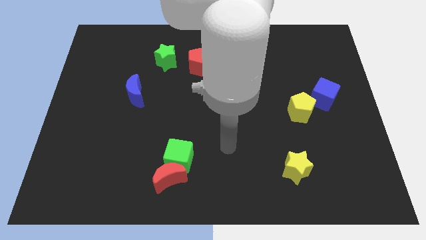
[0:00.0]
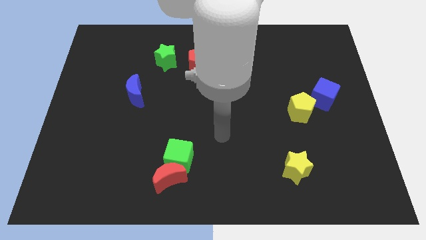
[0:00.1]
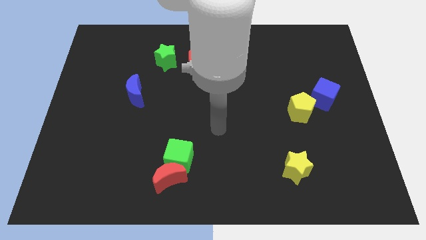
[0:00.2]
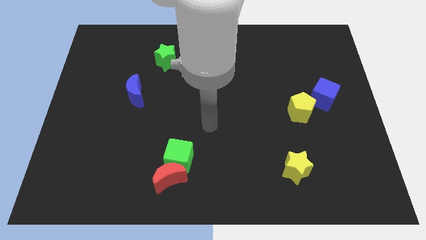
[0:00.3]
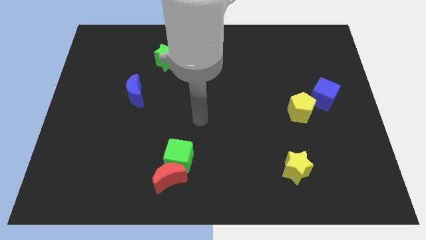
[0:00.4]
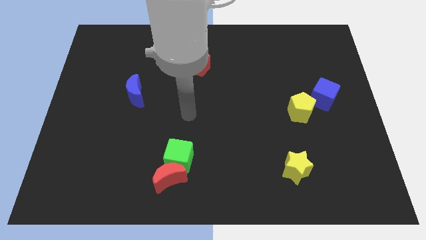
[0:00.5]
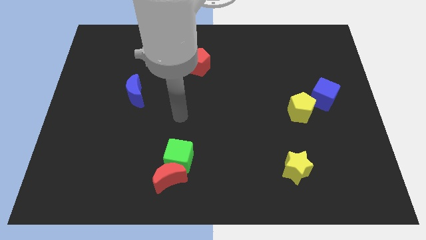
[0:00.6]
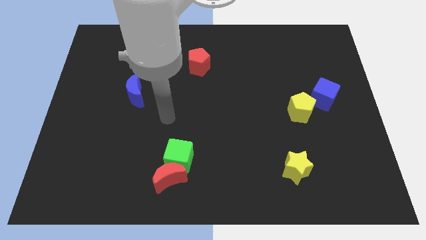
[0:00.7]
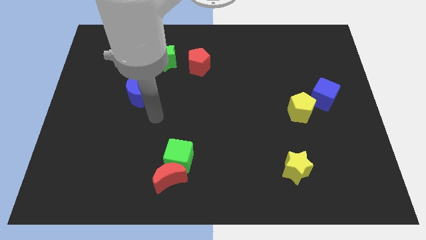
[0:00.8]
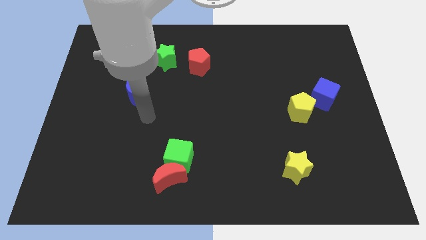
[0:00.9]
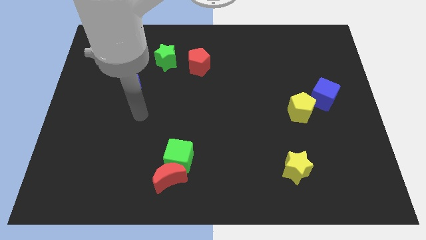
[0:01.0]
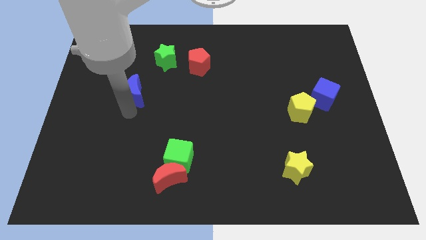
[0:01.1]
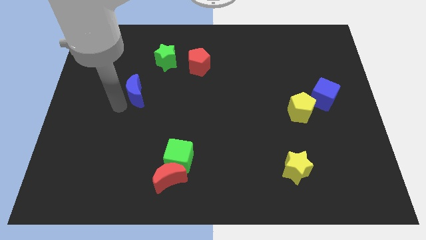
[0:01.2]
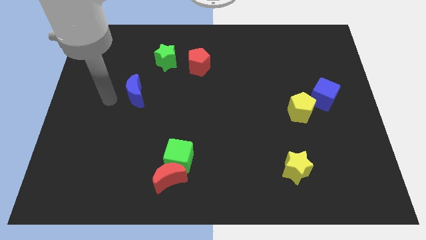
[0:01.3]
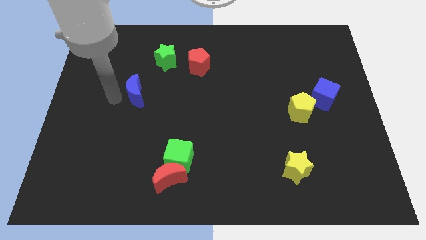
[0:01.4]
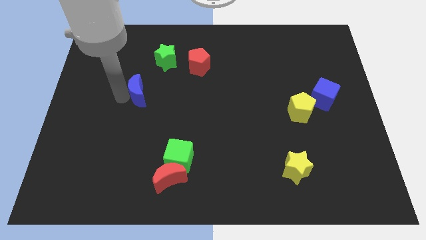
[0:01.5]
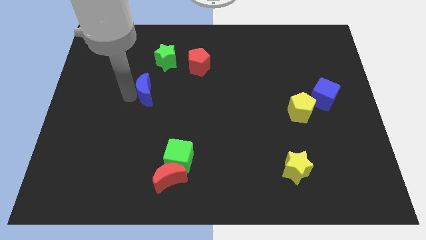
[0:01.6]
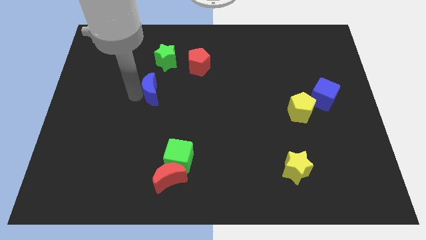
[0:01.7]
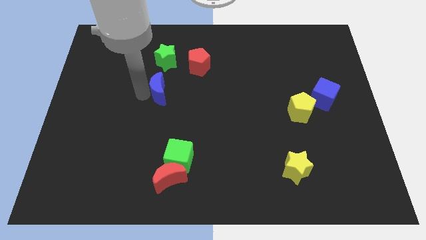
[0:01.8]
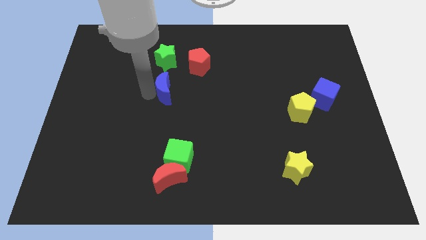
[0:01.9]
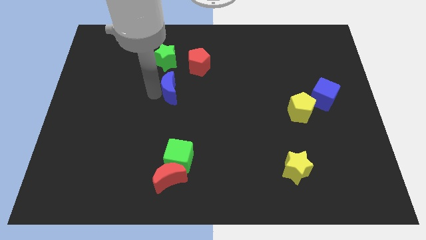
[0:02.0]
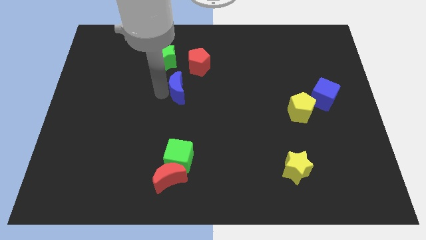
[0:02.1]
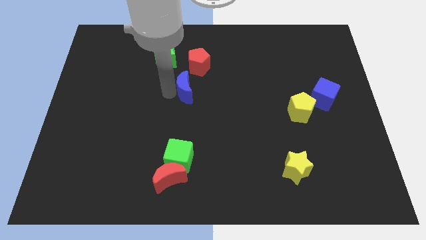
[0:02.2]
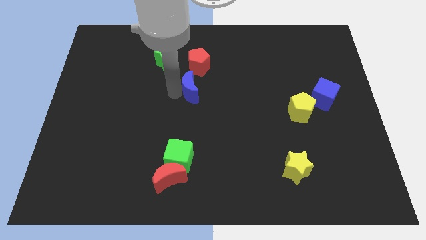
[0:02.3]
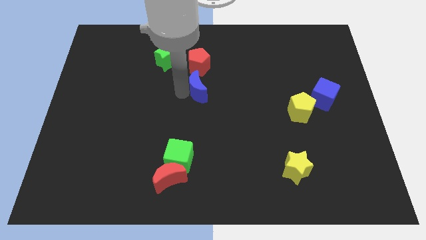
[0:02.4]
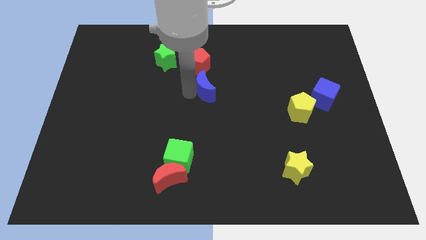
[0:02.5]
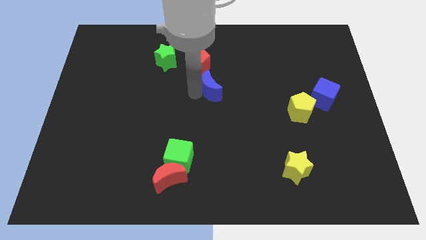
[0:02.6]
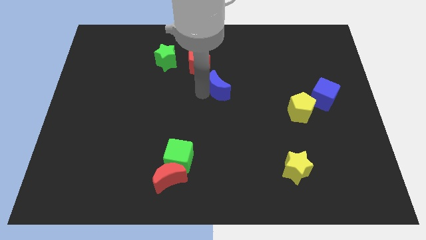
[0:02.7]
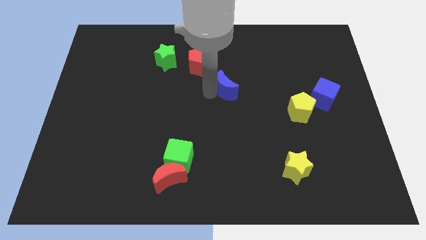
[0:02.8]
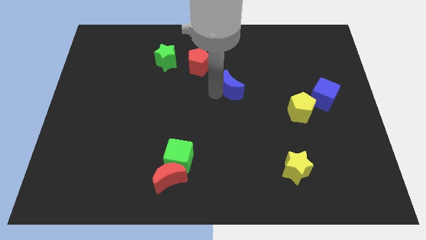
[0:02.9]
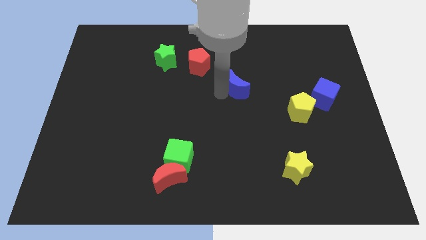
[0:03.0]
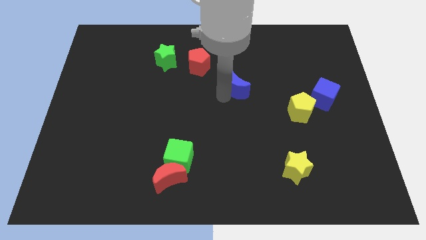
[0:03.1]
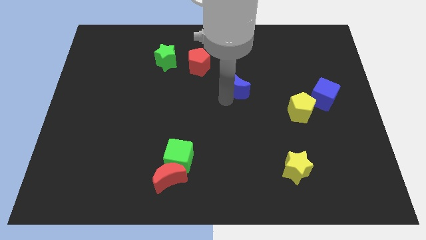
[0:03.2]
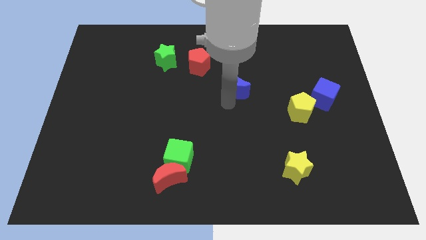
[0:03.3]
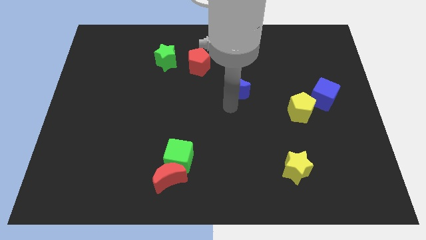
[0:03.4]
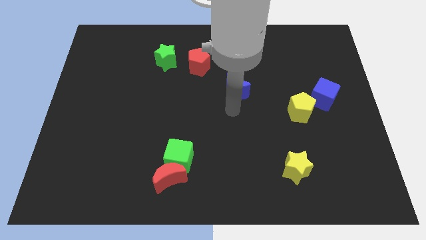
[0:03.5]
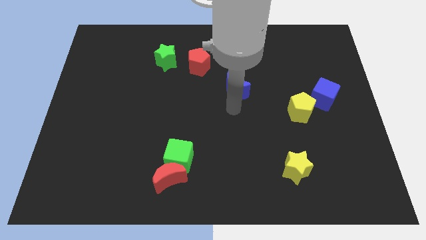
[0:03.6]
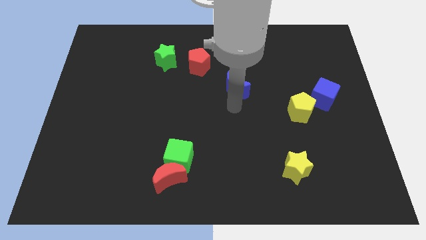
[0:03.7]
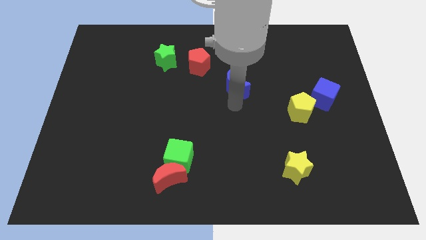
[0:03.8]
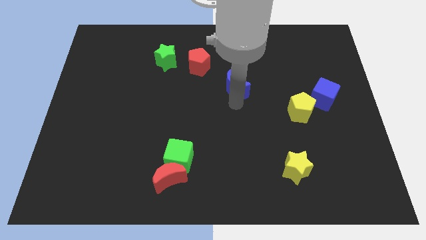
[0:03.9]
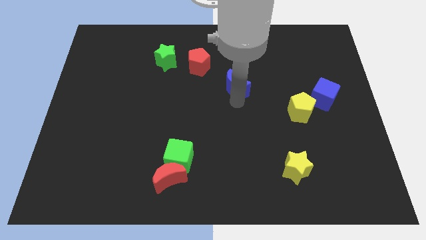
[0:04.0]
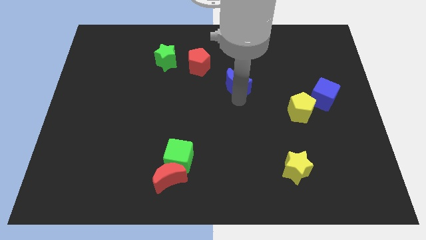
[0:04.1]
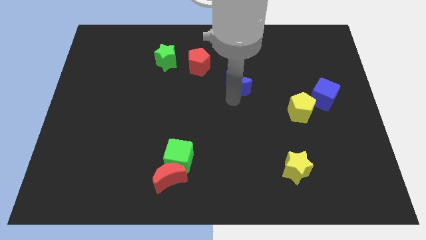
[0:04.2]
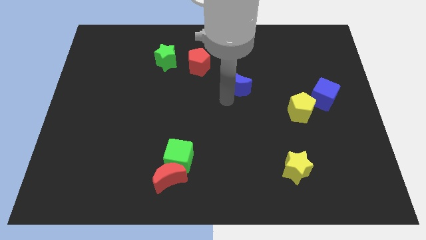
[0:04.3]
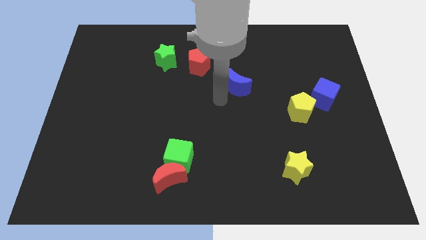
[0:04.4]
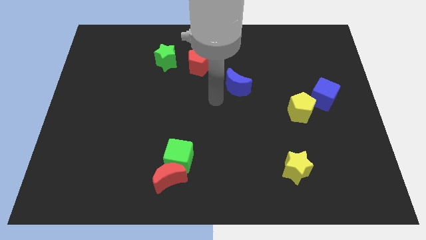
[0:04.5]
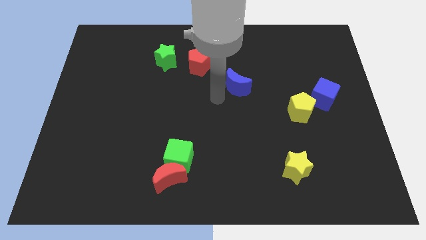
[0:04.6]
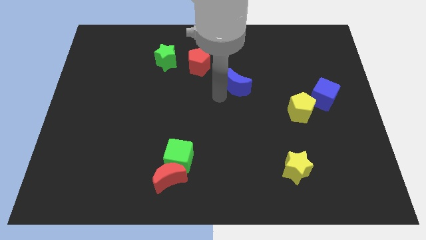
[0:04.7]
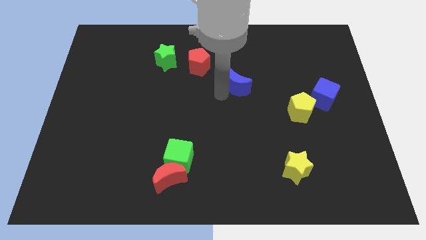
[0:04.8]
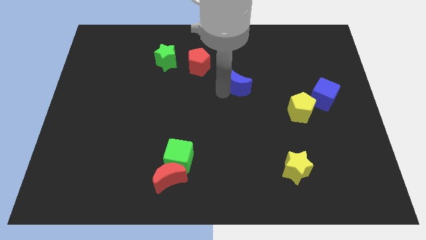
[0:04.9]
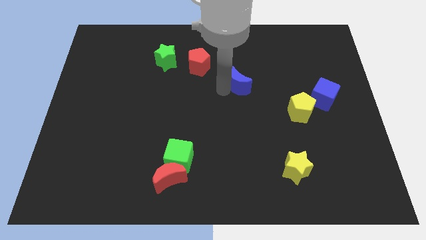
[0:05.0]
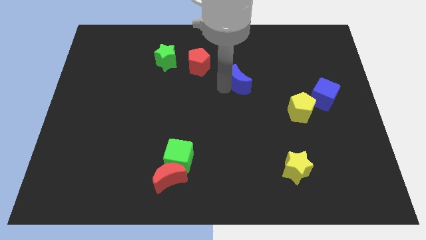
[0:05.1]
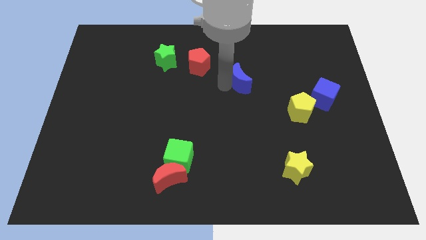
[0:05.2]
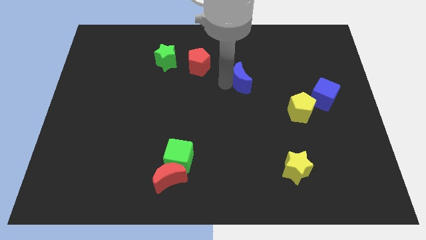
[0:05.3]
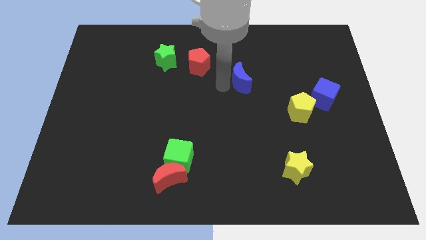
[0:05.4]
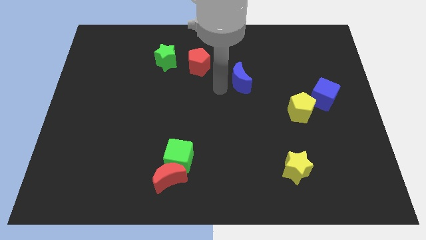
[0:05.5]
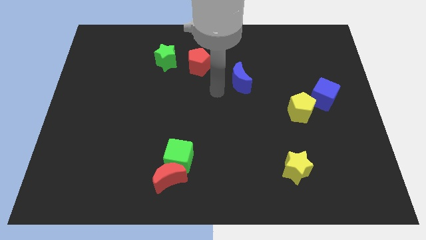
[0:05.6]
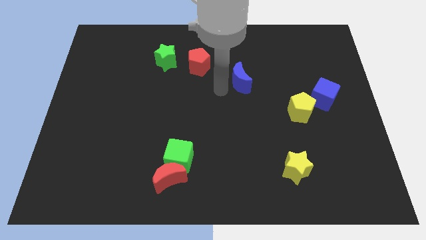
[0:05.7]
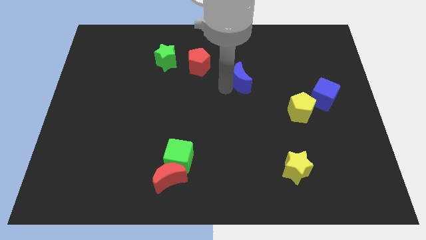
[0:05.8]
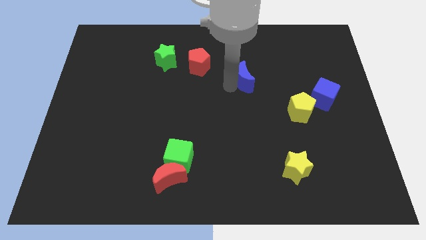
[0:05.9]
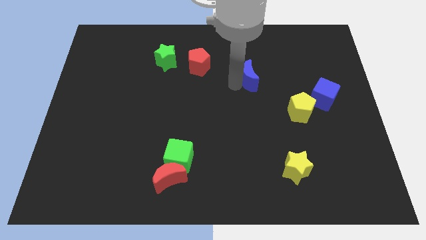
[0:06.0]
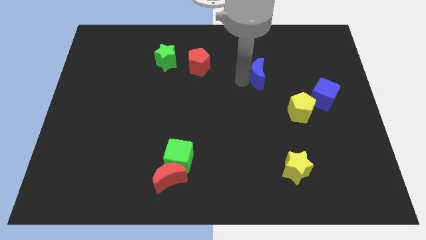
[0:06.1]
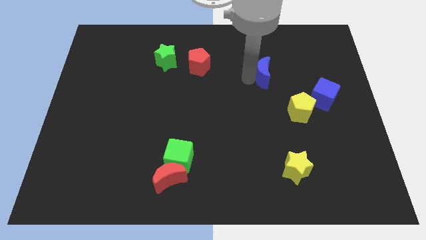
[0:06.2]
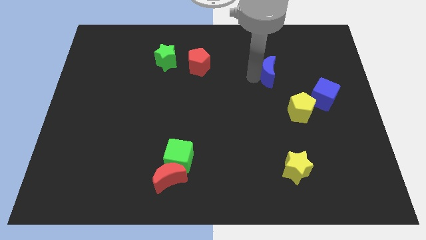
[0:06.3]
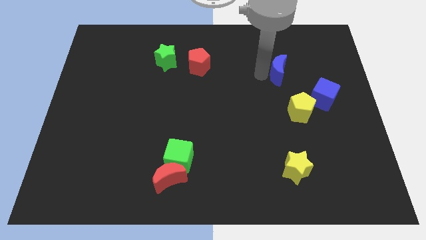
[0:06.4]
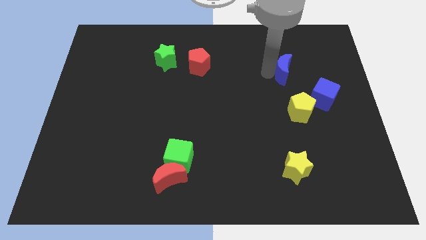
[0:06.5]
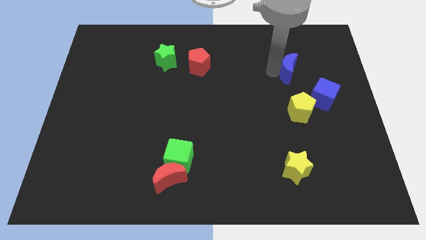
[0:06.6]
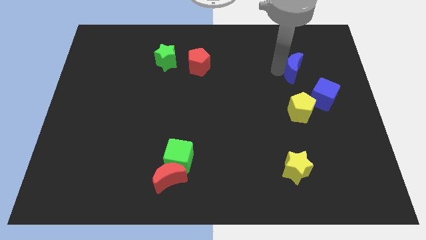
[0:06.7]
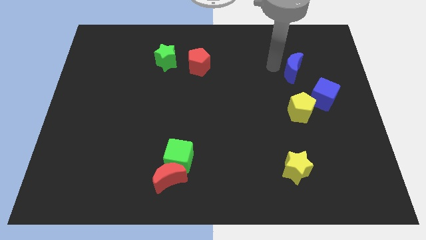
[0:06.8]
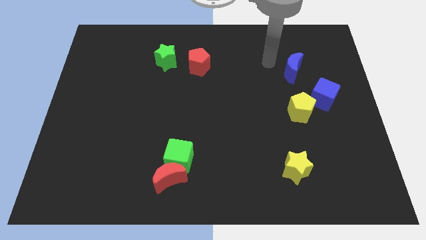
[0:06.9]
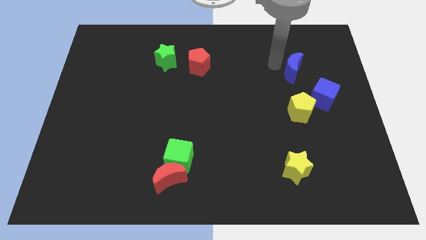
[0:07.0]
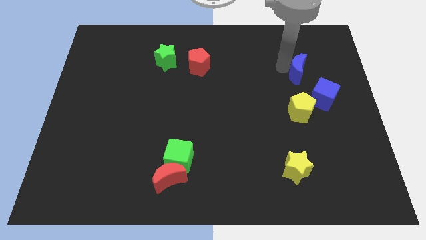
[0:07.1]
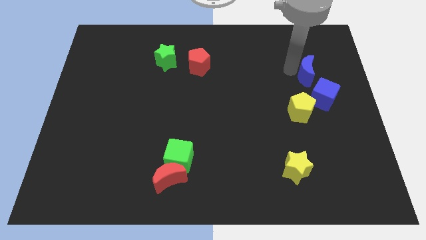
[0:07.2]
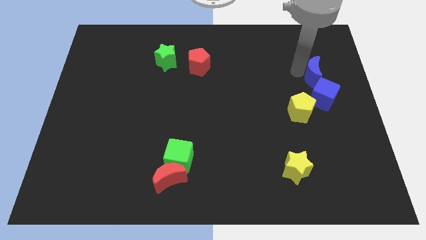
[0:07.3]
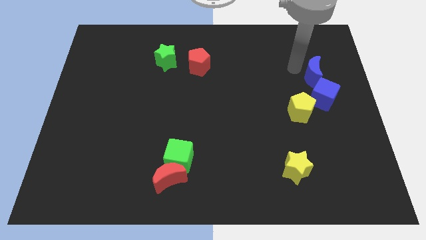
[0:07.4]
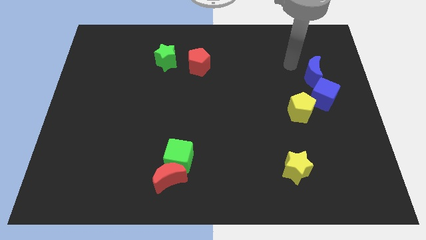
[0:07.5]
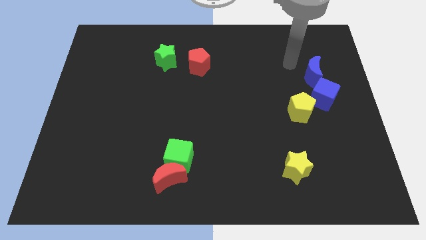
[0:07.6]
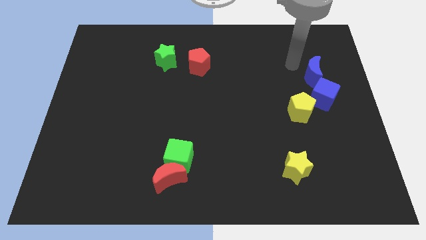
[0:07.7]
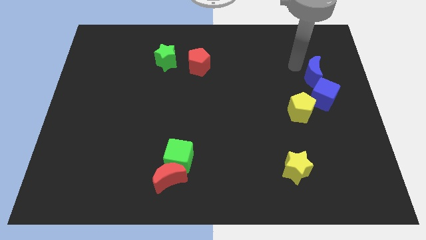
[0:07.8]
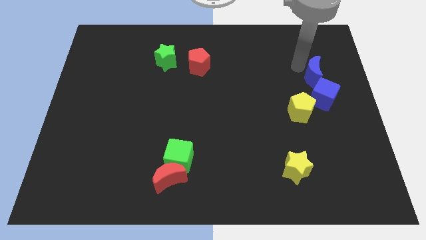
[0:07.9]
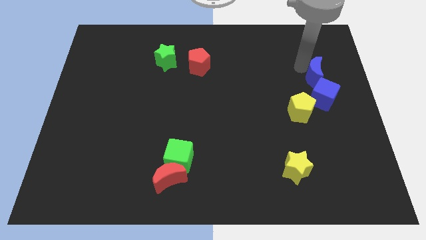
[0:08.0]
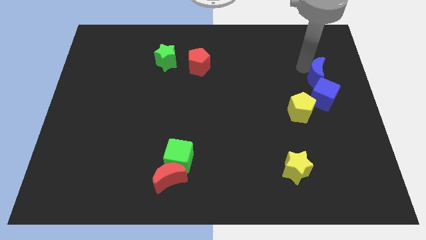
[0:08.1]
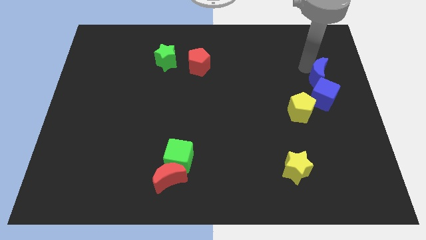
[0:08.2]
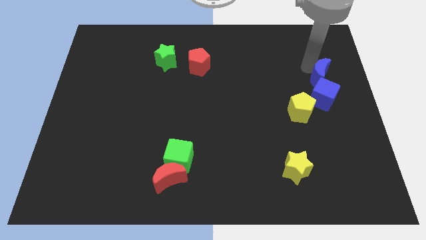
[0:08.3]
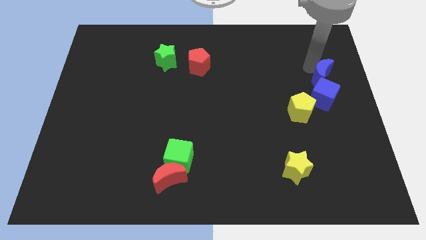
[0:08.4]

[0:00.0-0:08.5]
push the blue moon to the right side of the board
